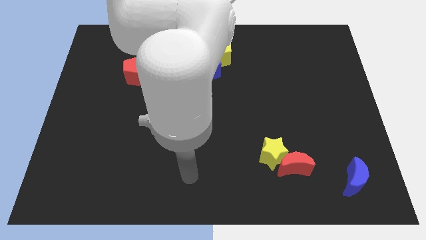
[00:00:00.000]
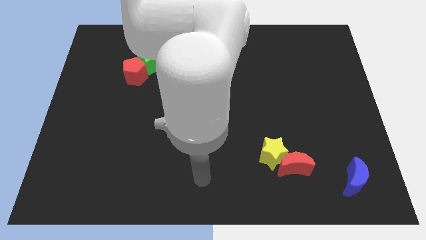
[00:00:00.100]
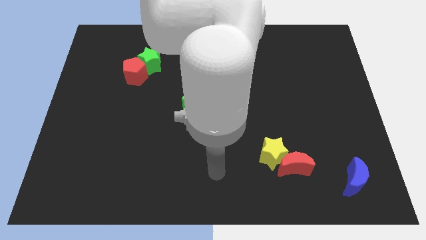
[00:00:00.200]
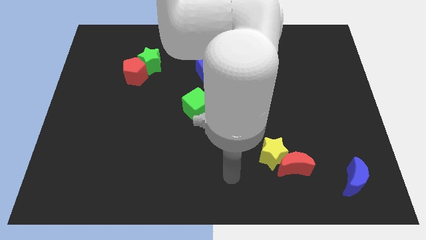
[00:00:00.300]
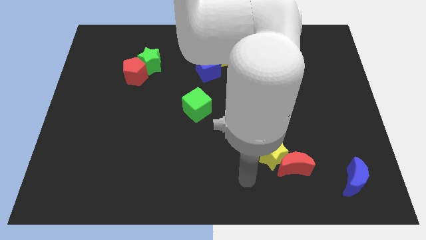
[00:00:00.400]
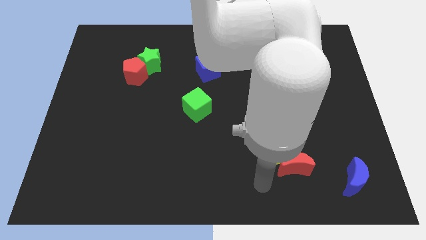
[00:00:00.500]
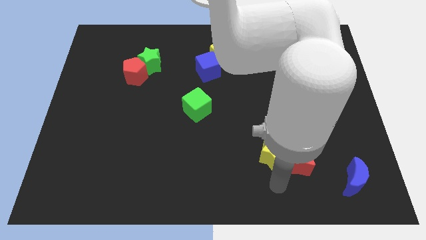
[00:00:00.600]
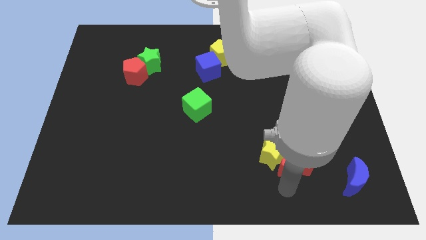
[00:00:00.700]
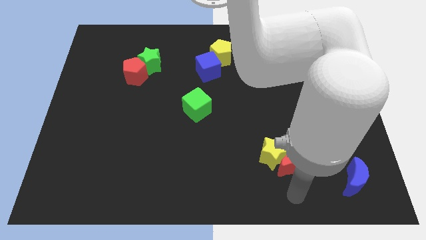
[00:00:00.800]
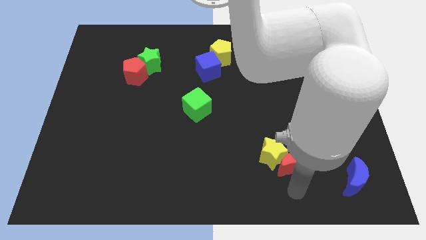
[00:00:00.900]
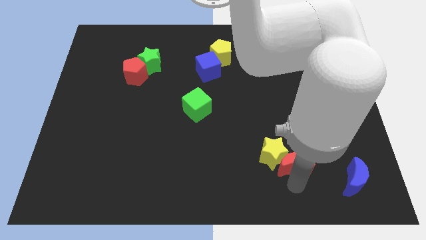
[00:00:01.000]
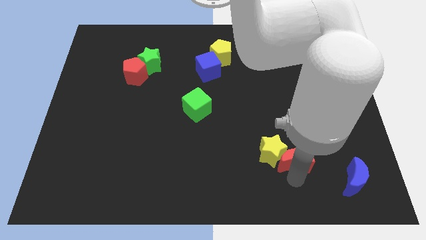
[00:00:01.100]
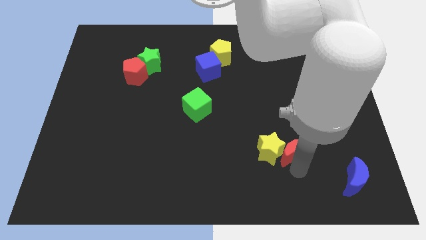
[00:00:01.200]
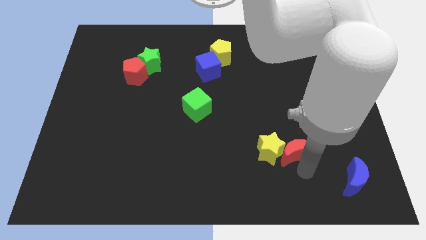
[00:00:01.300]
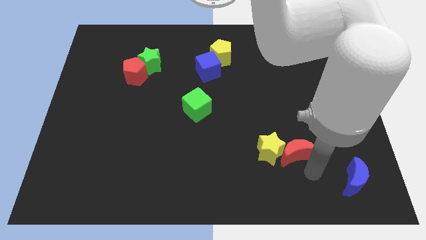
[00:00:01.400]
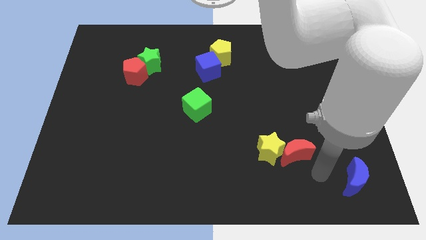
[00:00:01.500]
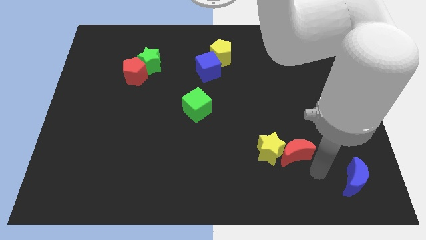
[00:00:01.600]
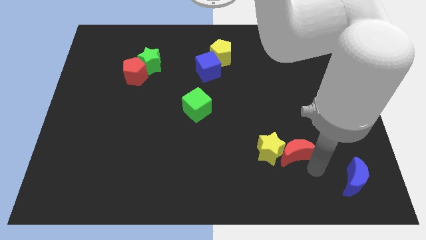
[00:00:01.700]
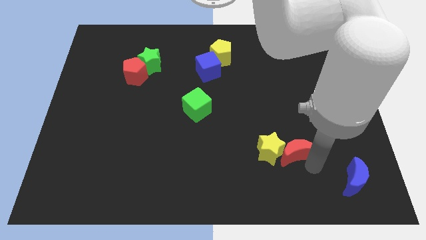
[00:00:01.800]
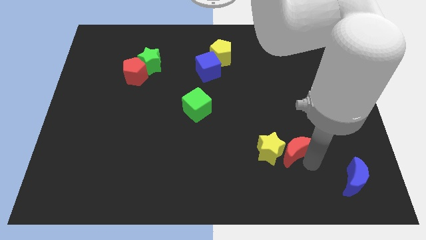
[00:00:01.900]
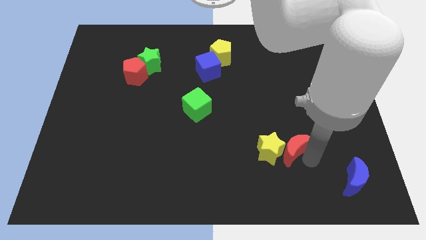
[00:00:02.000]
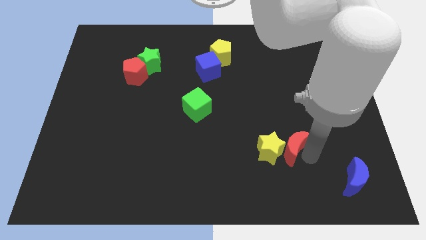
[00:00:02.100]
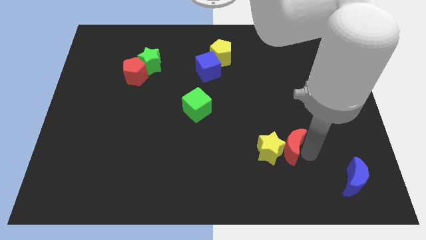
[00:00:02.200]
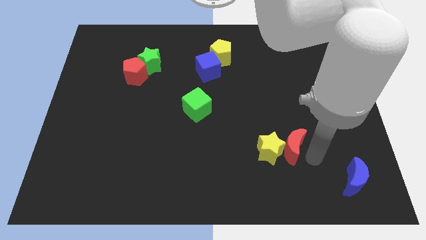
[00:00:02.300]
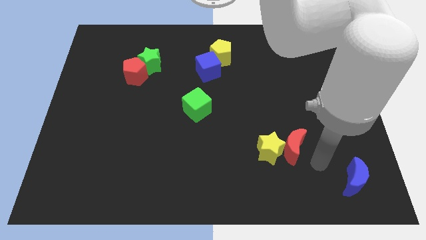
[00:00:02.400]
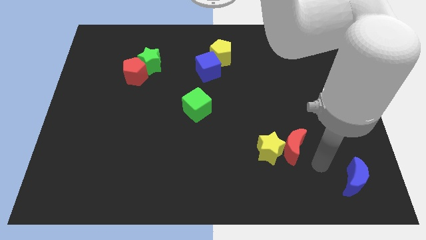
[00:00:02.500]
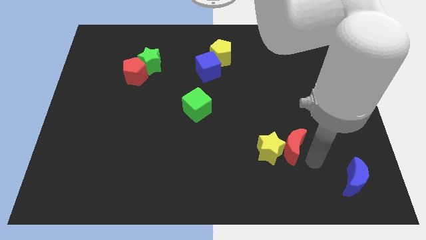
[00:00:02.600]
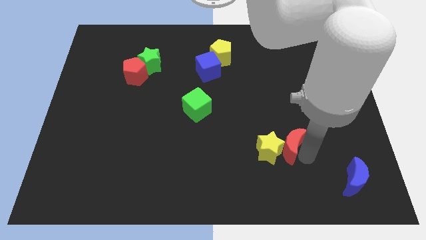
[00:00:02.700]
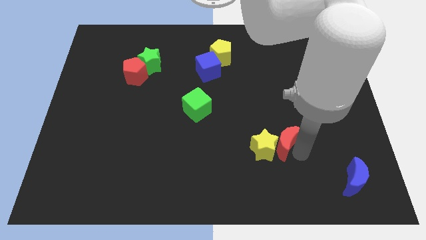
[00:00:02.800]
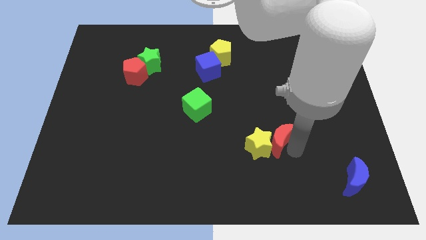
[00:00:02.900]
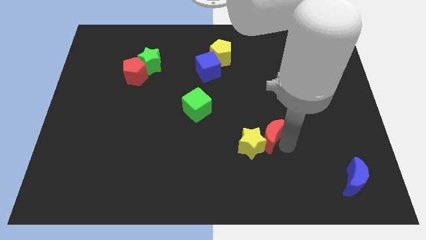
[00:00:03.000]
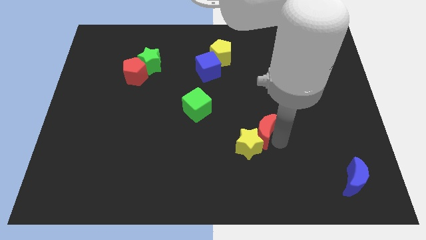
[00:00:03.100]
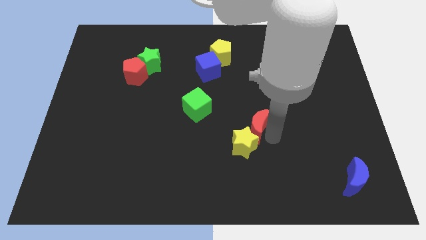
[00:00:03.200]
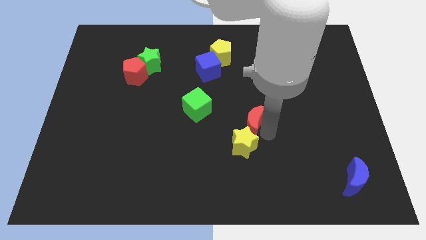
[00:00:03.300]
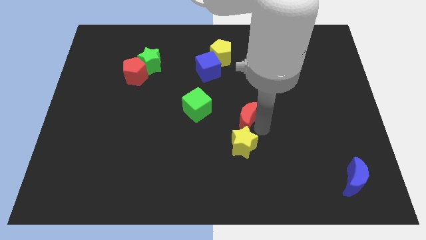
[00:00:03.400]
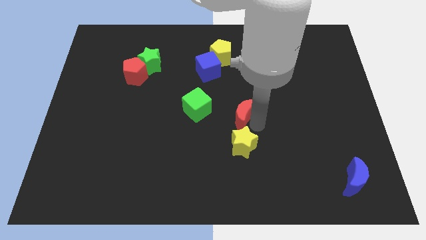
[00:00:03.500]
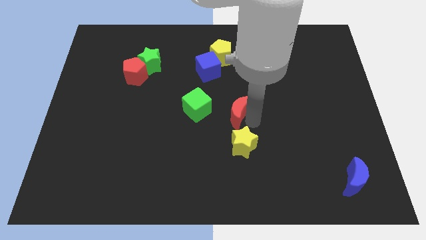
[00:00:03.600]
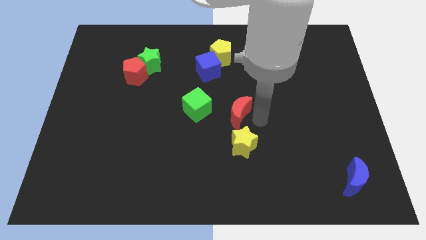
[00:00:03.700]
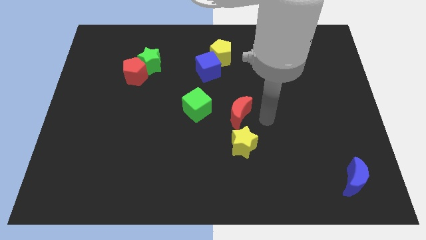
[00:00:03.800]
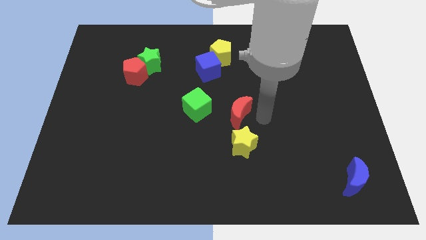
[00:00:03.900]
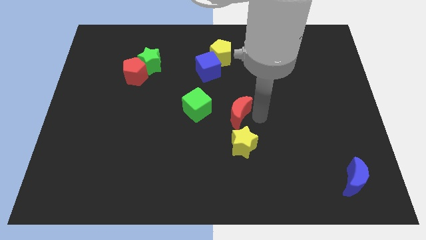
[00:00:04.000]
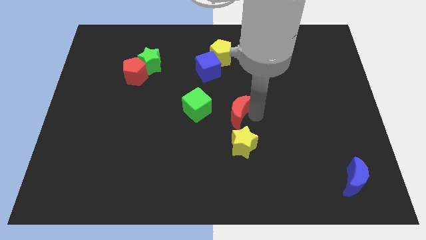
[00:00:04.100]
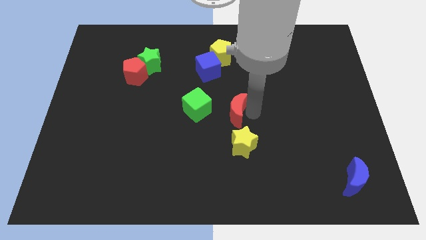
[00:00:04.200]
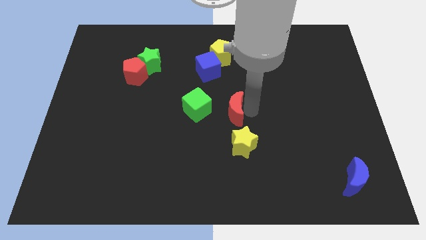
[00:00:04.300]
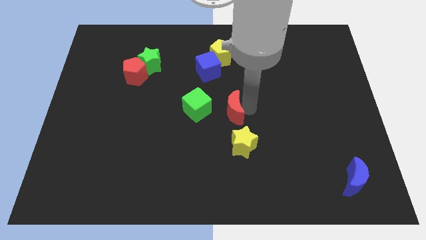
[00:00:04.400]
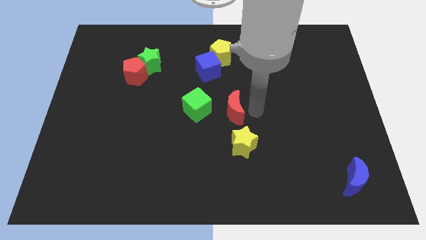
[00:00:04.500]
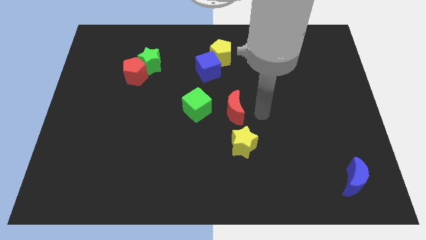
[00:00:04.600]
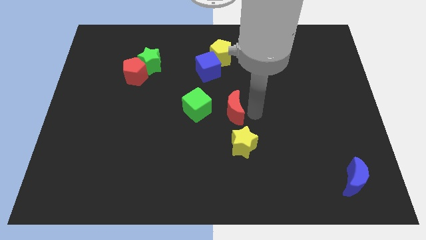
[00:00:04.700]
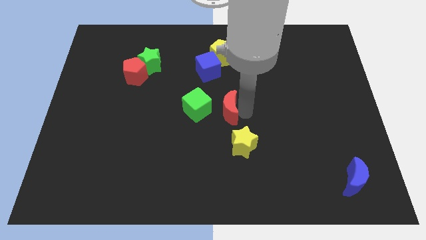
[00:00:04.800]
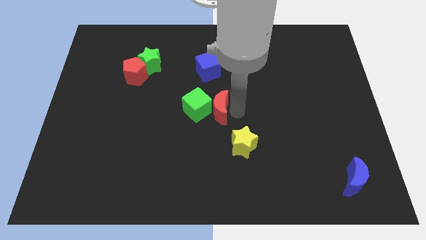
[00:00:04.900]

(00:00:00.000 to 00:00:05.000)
push the red moon next to the green cube

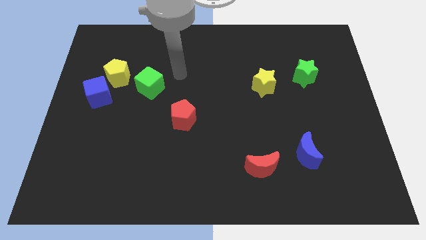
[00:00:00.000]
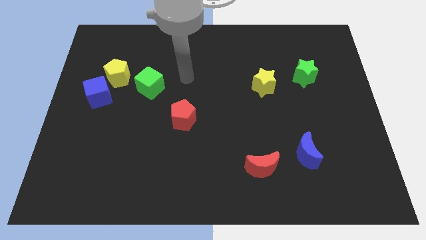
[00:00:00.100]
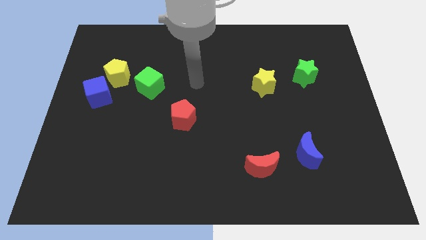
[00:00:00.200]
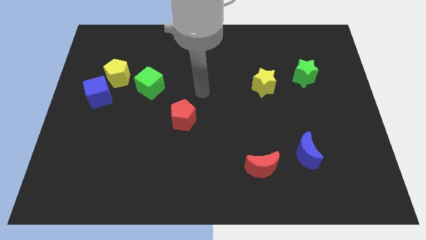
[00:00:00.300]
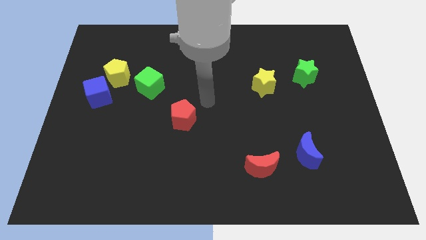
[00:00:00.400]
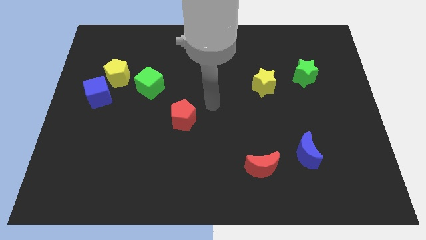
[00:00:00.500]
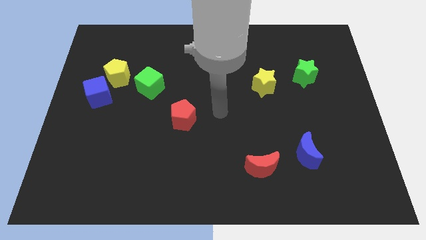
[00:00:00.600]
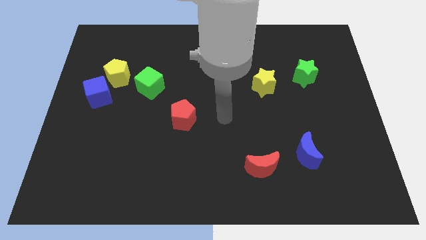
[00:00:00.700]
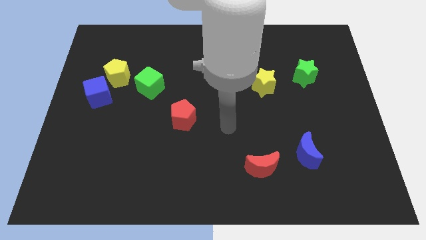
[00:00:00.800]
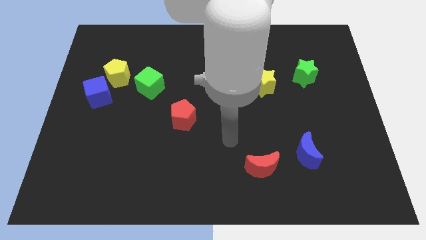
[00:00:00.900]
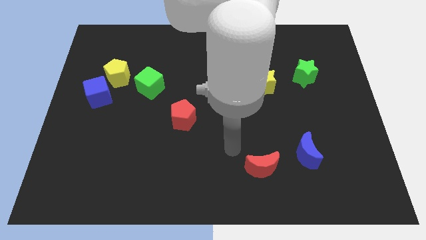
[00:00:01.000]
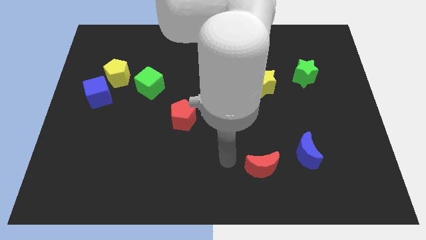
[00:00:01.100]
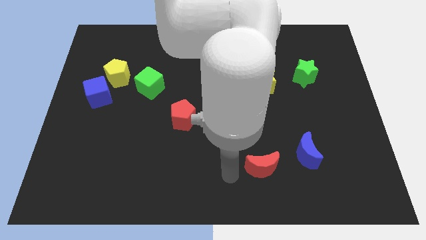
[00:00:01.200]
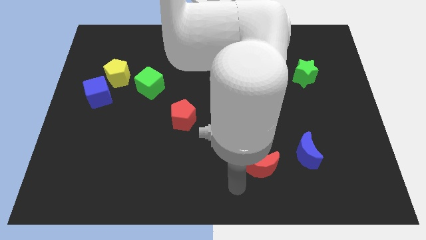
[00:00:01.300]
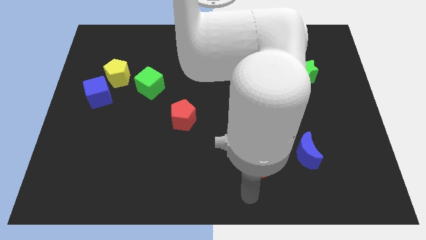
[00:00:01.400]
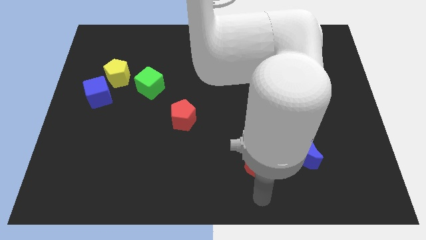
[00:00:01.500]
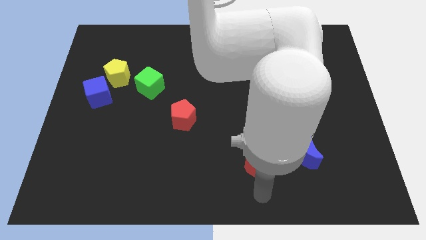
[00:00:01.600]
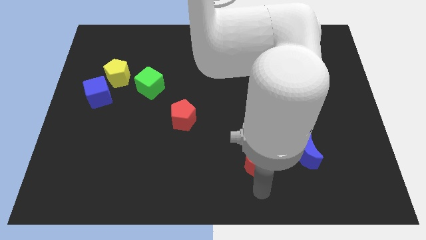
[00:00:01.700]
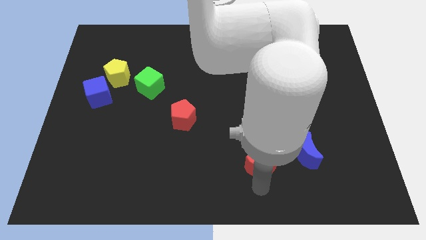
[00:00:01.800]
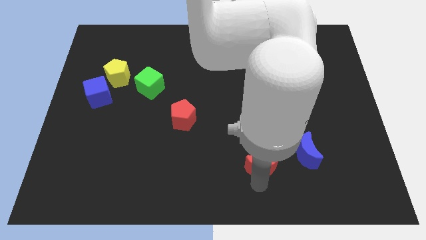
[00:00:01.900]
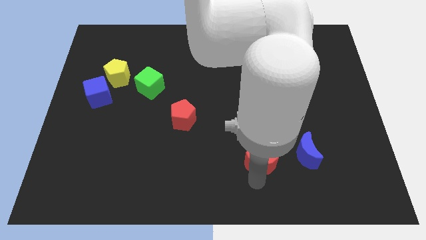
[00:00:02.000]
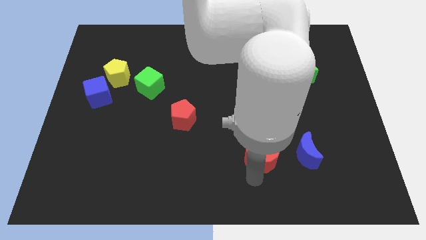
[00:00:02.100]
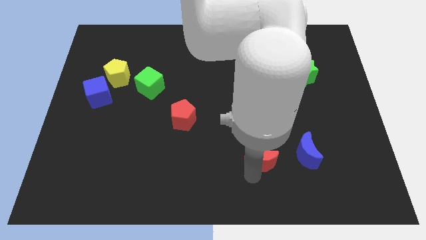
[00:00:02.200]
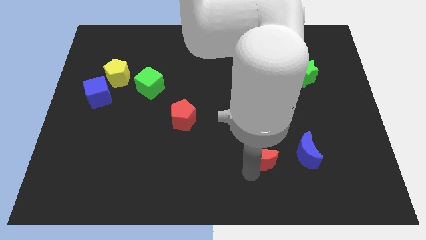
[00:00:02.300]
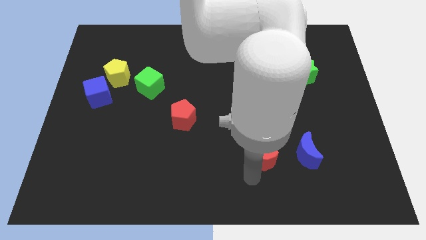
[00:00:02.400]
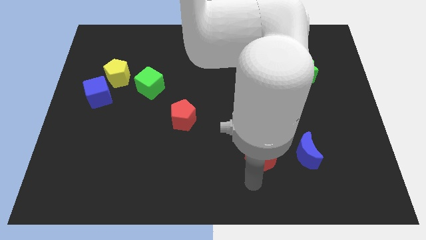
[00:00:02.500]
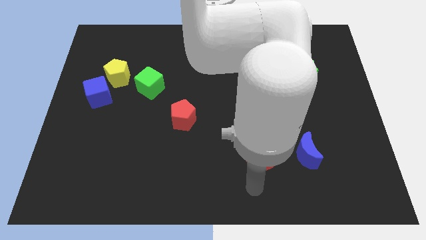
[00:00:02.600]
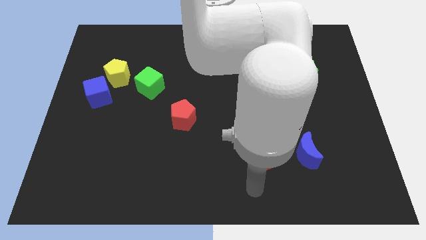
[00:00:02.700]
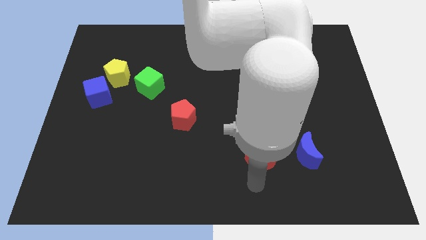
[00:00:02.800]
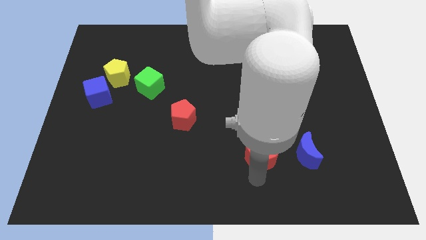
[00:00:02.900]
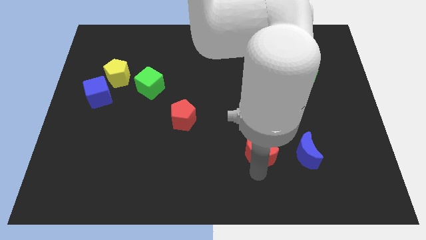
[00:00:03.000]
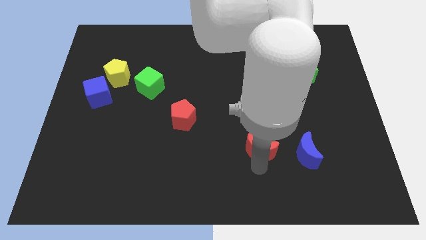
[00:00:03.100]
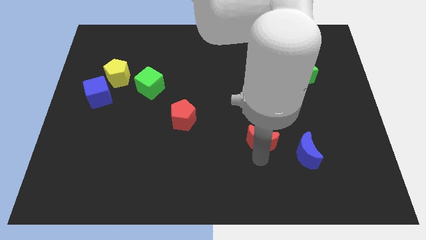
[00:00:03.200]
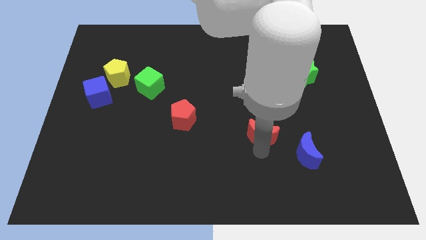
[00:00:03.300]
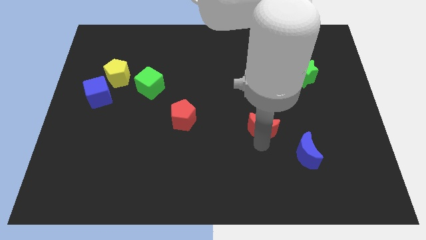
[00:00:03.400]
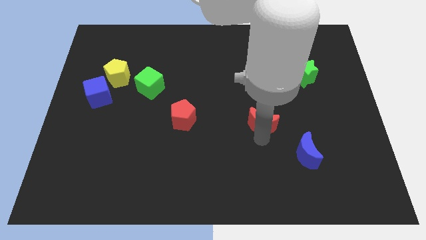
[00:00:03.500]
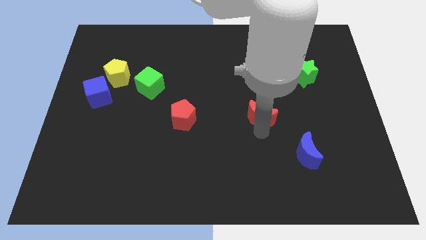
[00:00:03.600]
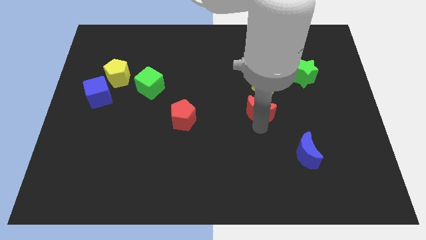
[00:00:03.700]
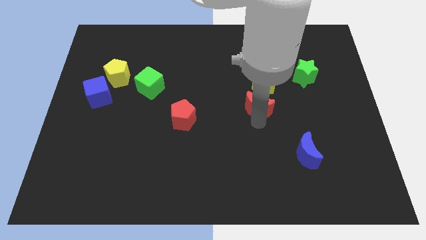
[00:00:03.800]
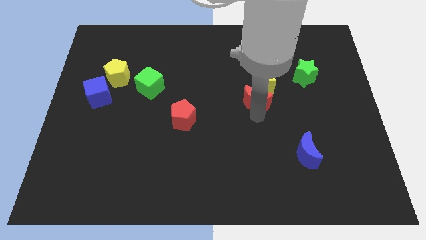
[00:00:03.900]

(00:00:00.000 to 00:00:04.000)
push the red moon close to the yellow star
